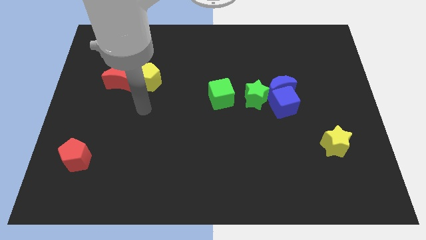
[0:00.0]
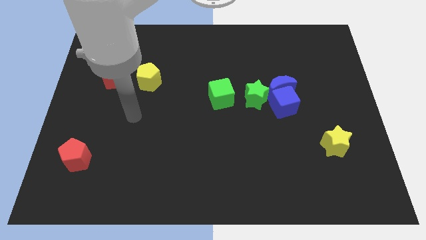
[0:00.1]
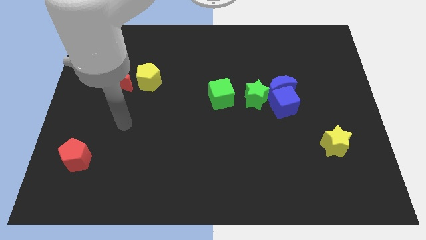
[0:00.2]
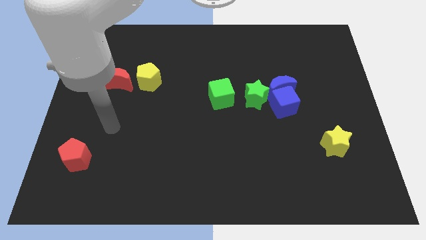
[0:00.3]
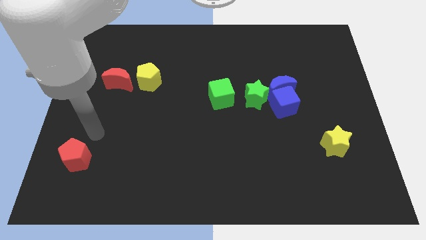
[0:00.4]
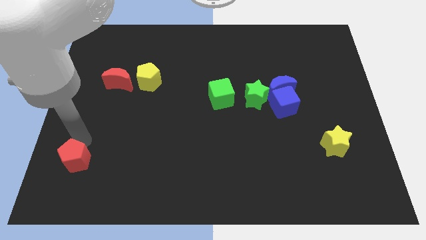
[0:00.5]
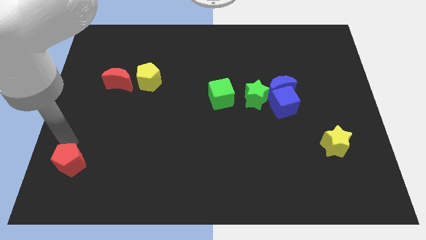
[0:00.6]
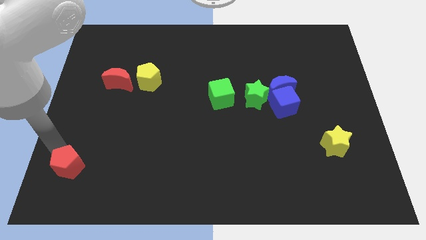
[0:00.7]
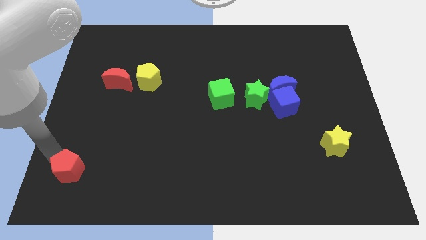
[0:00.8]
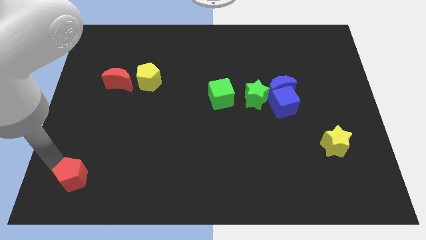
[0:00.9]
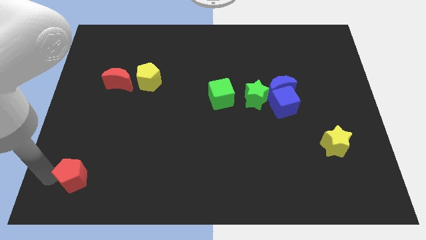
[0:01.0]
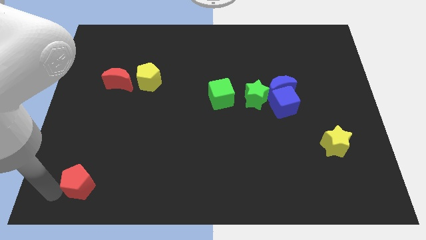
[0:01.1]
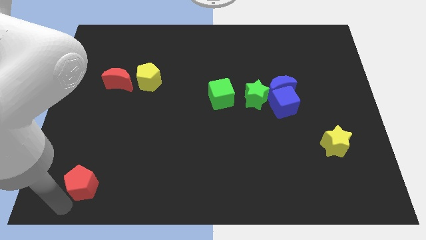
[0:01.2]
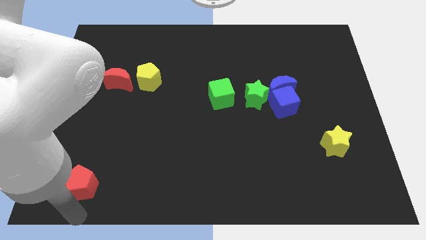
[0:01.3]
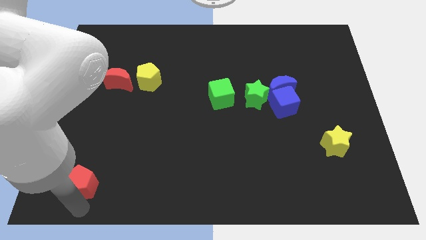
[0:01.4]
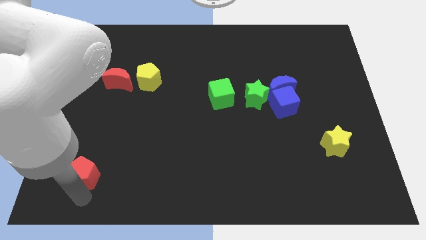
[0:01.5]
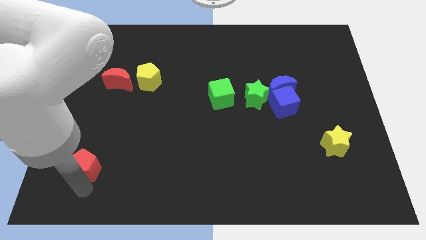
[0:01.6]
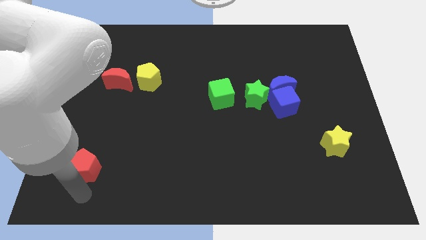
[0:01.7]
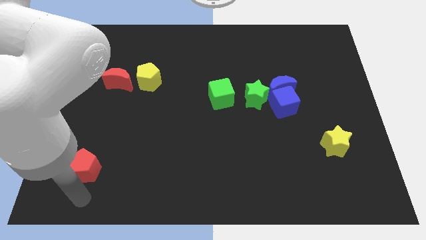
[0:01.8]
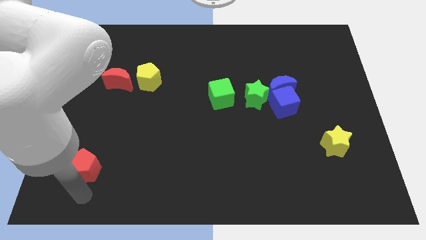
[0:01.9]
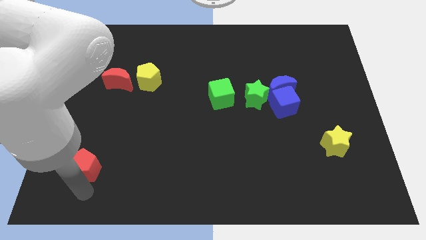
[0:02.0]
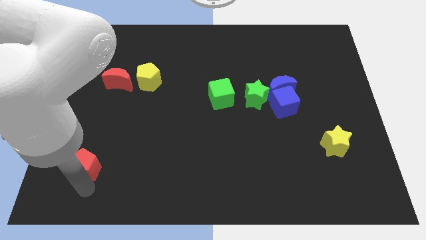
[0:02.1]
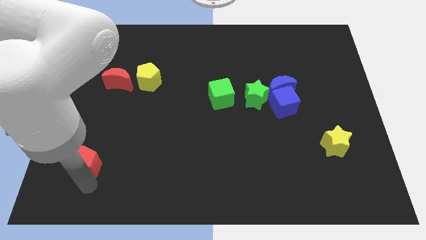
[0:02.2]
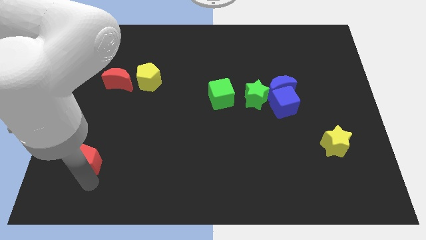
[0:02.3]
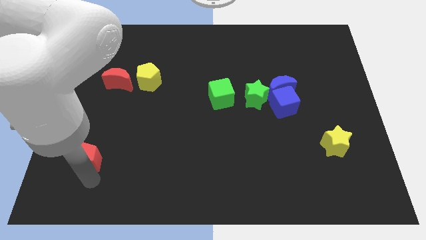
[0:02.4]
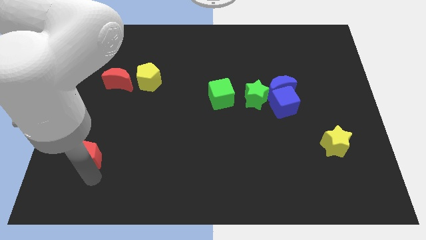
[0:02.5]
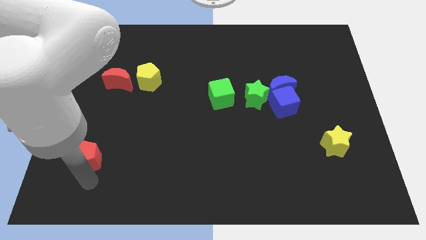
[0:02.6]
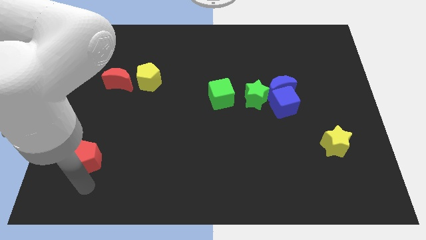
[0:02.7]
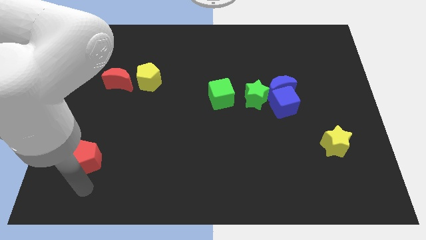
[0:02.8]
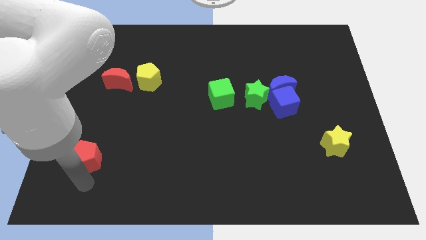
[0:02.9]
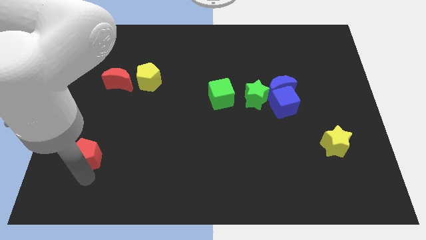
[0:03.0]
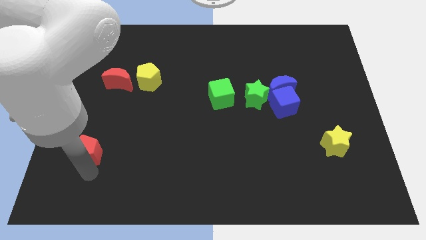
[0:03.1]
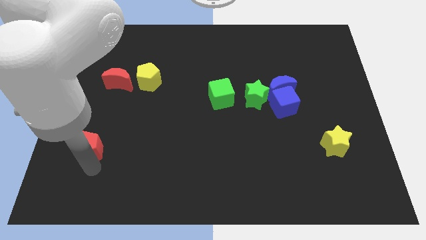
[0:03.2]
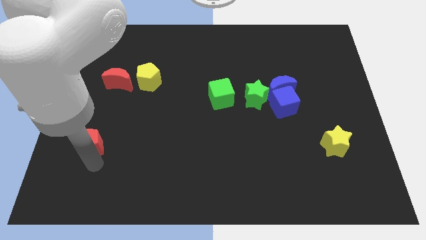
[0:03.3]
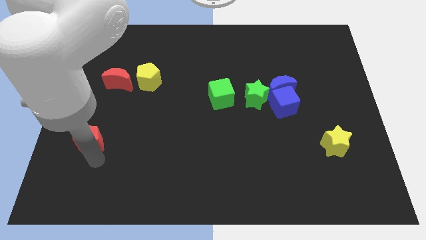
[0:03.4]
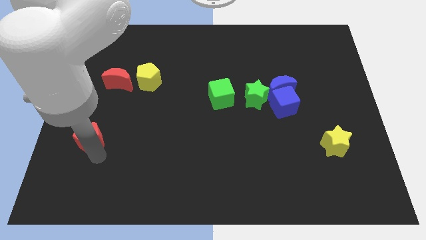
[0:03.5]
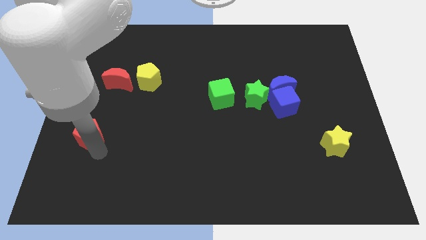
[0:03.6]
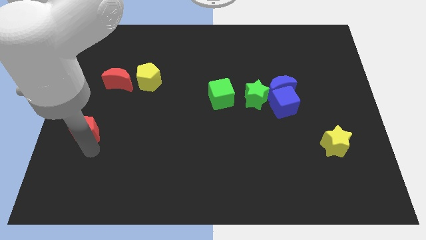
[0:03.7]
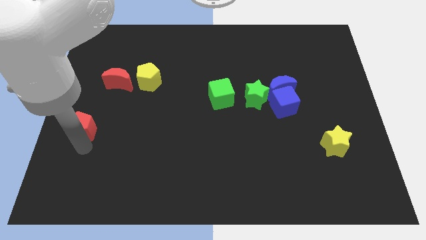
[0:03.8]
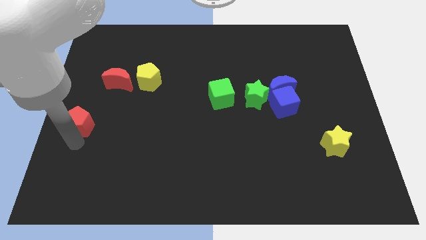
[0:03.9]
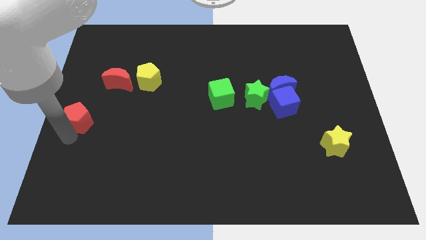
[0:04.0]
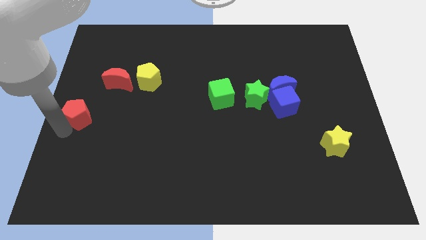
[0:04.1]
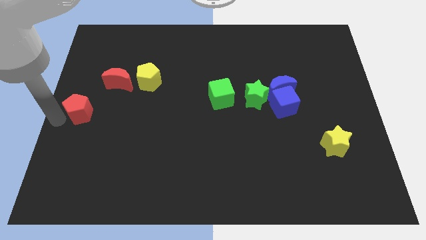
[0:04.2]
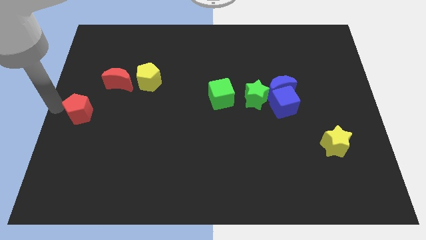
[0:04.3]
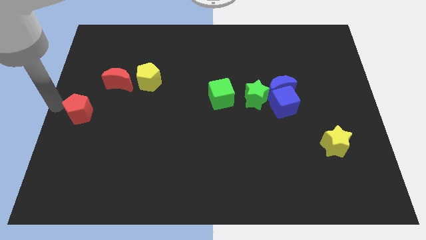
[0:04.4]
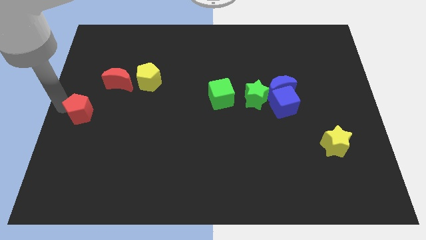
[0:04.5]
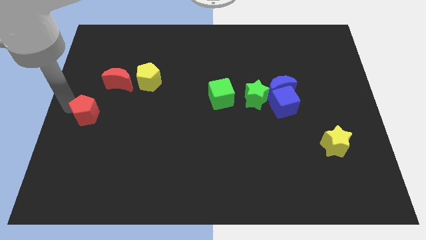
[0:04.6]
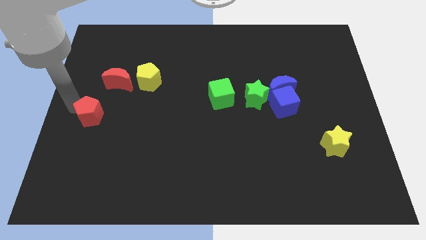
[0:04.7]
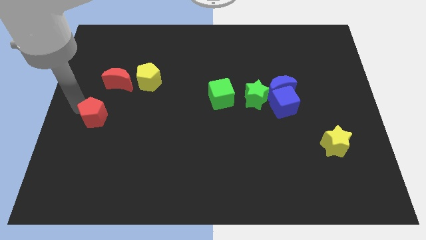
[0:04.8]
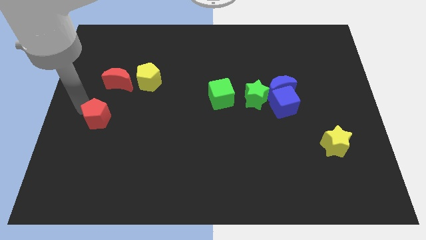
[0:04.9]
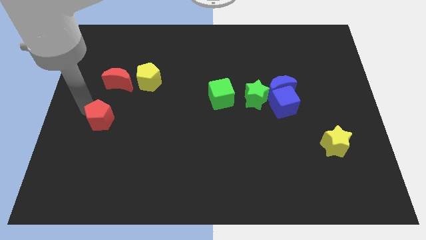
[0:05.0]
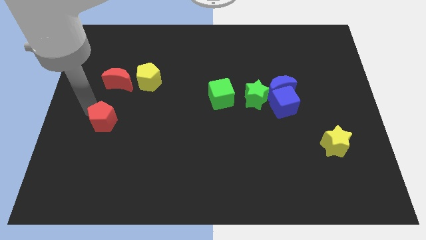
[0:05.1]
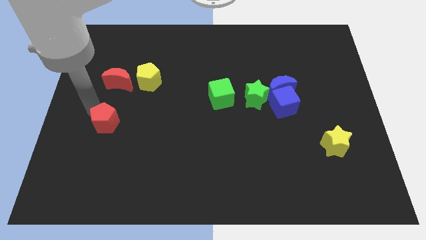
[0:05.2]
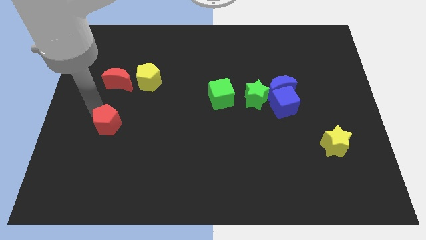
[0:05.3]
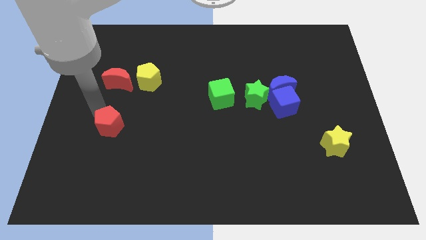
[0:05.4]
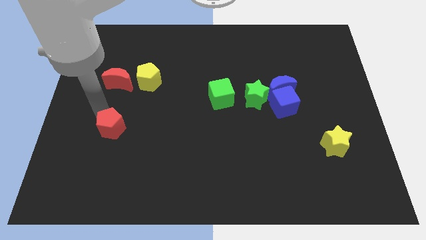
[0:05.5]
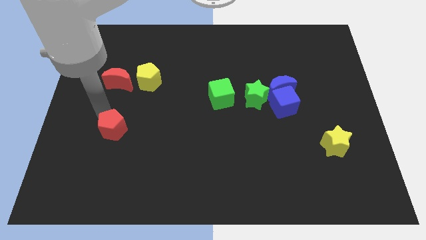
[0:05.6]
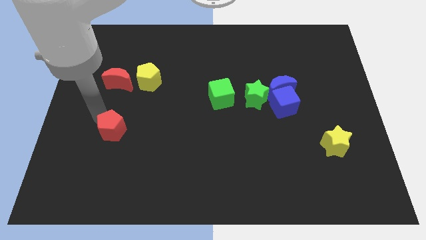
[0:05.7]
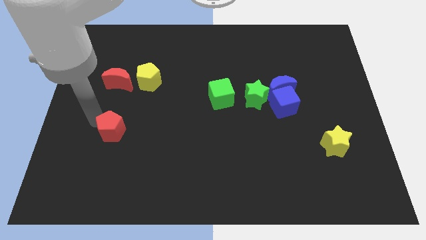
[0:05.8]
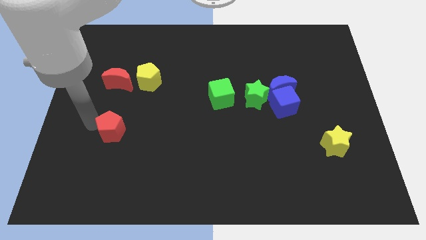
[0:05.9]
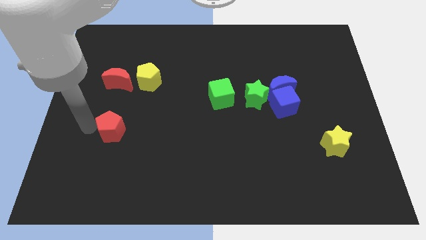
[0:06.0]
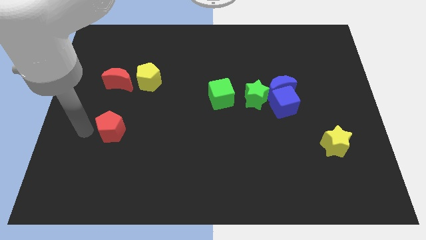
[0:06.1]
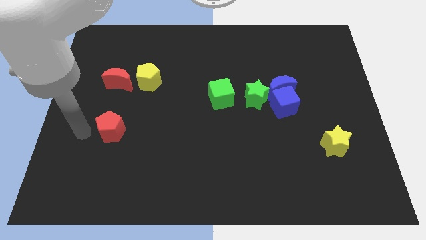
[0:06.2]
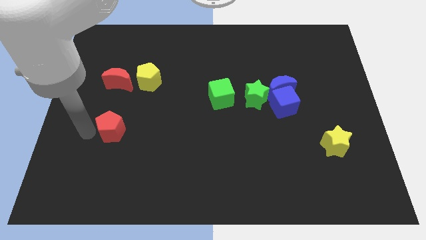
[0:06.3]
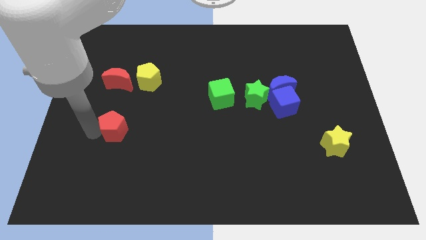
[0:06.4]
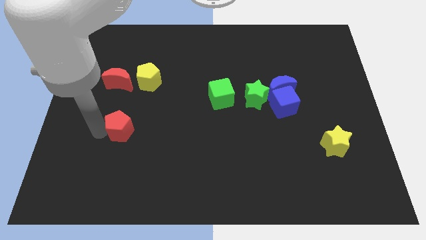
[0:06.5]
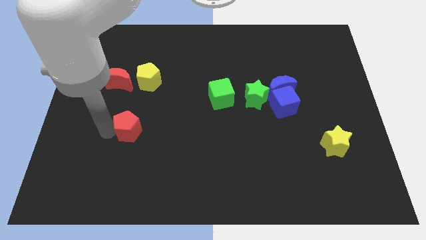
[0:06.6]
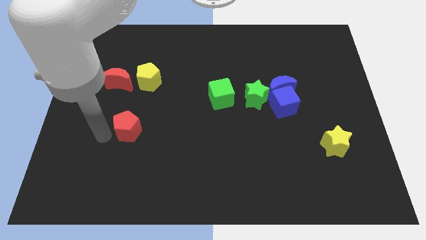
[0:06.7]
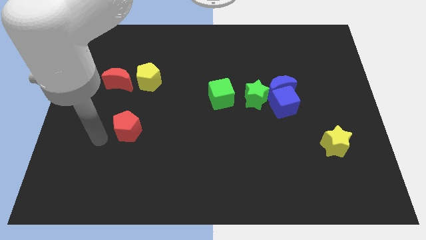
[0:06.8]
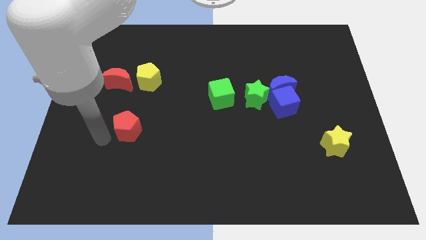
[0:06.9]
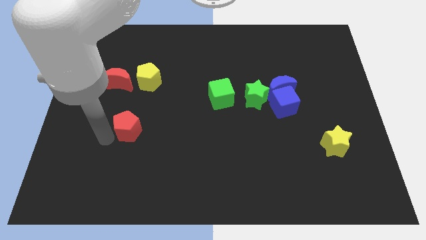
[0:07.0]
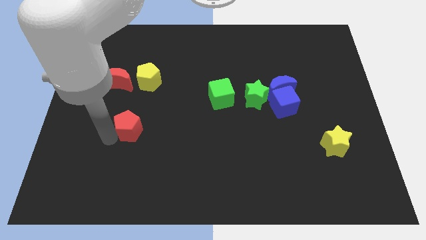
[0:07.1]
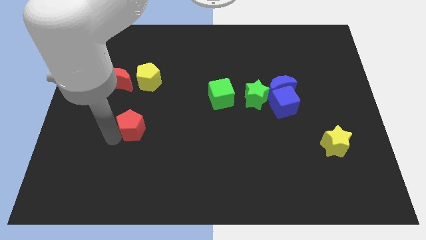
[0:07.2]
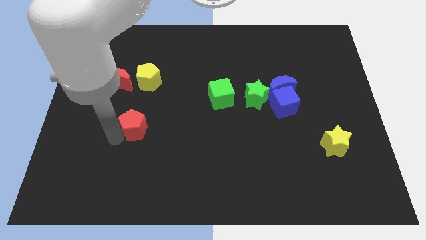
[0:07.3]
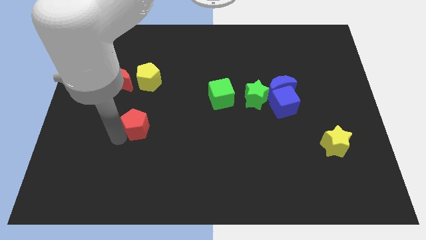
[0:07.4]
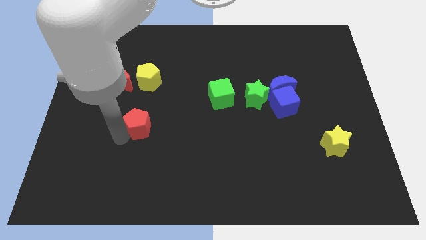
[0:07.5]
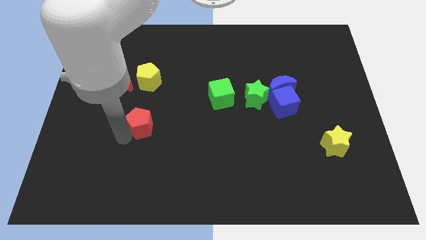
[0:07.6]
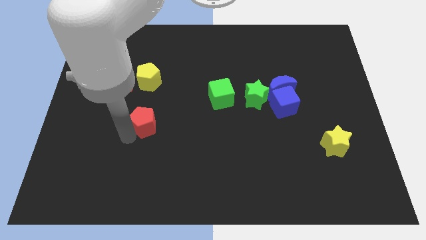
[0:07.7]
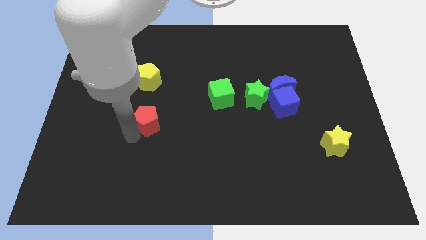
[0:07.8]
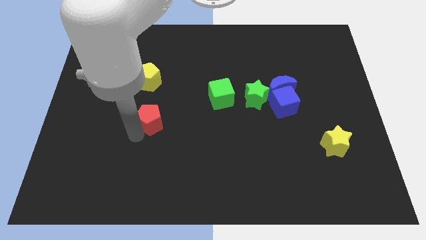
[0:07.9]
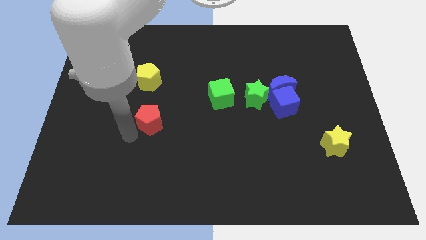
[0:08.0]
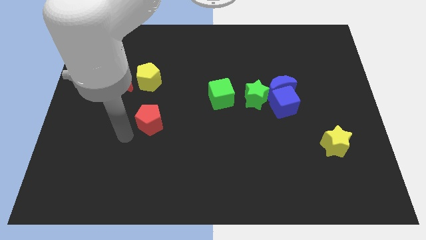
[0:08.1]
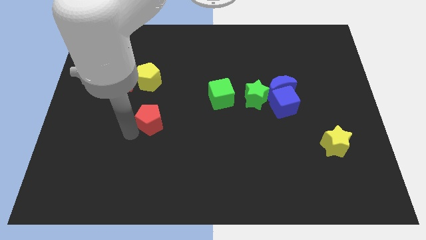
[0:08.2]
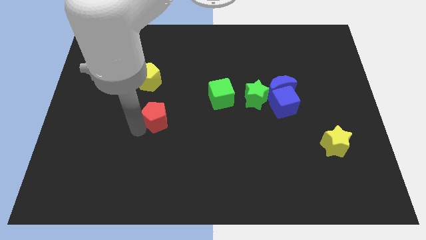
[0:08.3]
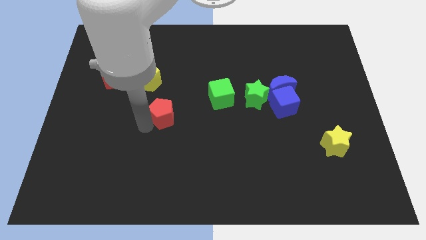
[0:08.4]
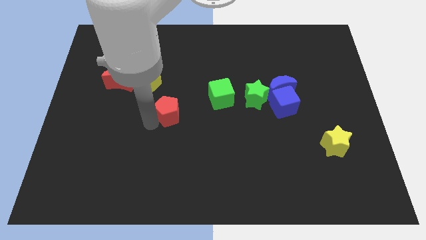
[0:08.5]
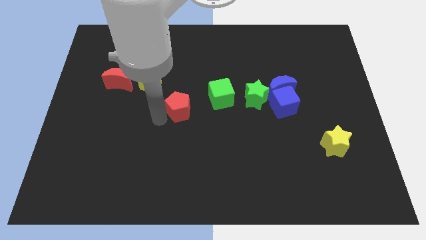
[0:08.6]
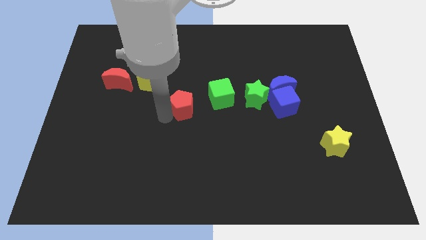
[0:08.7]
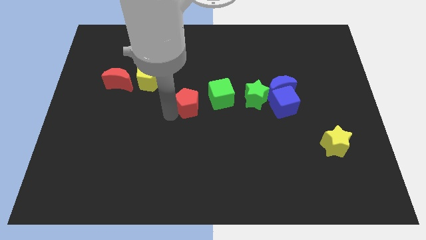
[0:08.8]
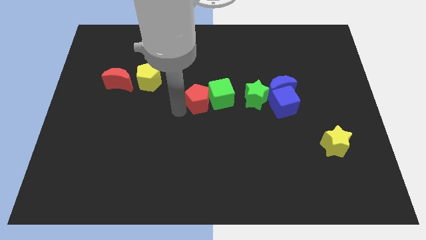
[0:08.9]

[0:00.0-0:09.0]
put the red pentagon towards the green cube
